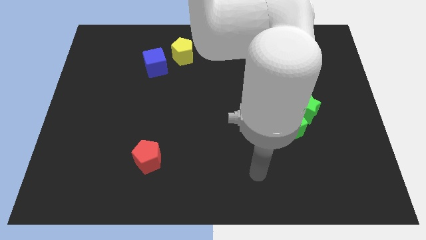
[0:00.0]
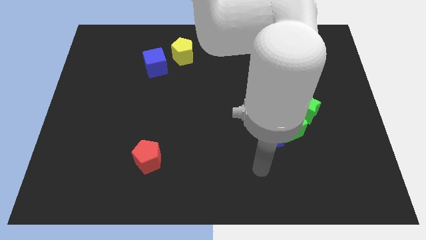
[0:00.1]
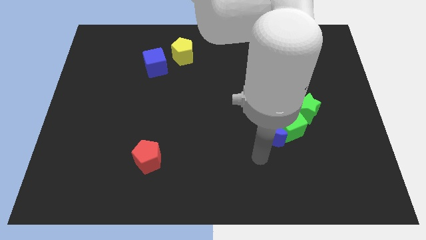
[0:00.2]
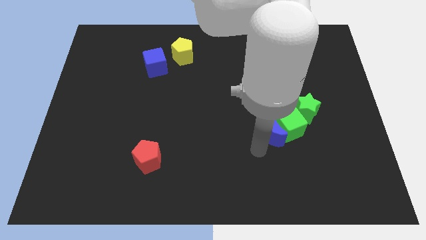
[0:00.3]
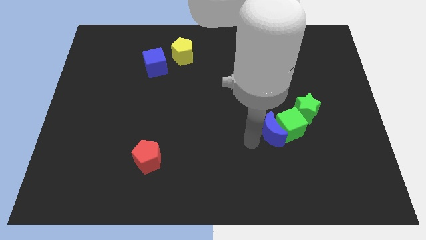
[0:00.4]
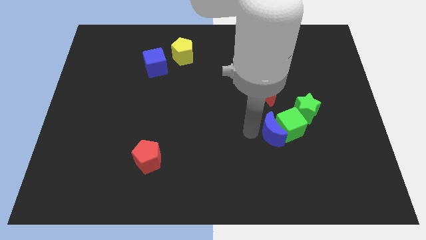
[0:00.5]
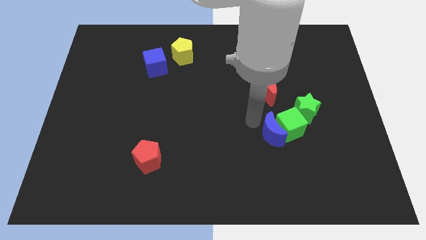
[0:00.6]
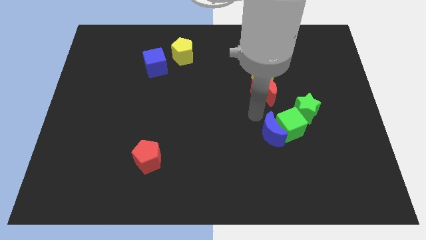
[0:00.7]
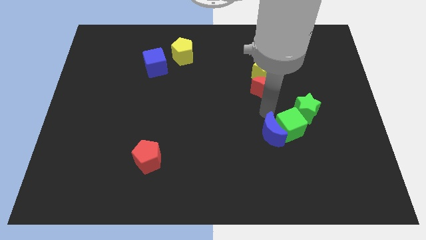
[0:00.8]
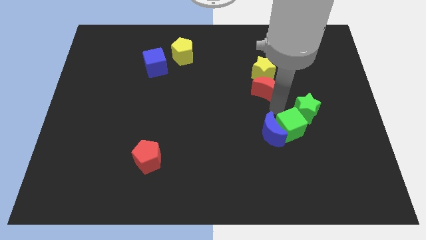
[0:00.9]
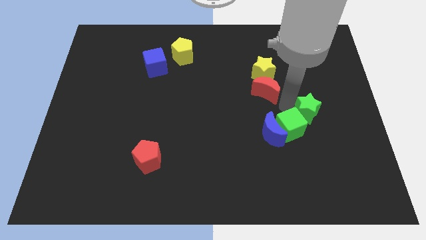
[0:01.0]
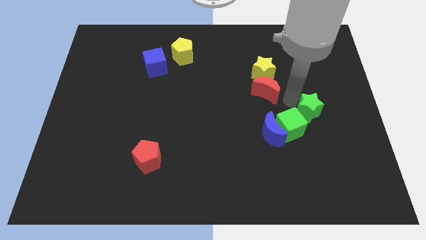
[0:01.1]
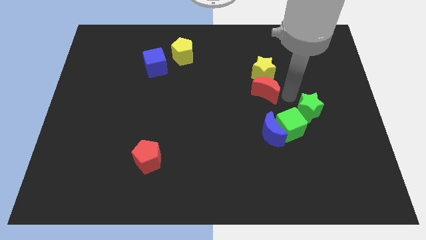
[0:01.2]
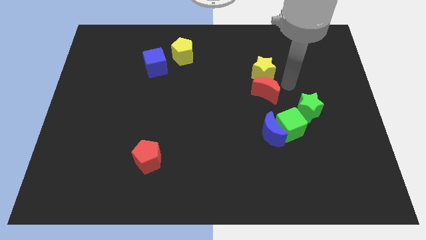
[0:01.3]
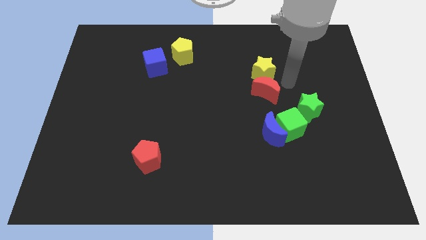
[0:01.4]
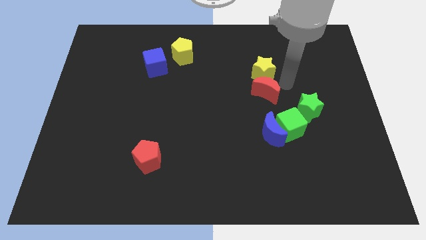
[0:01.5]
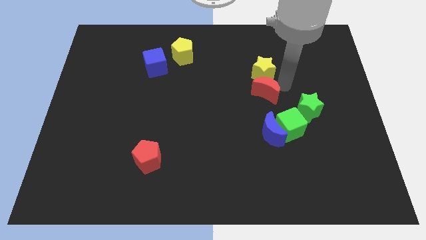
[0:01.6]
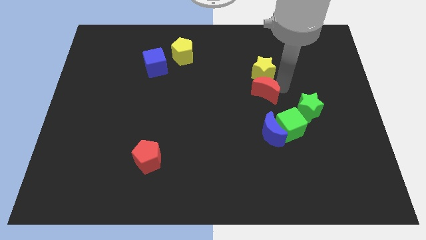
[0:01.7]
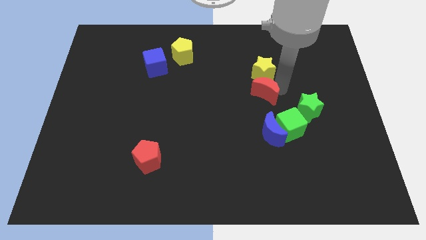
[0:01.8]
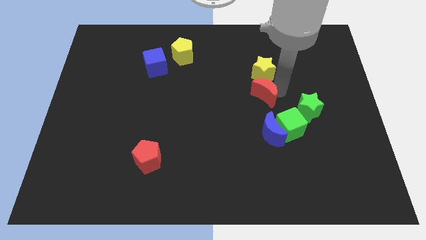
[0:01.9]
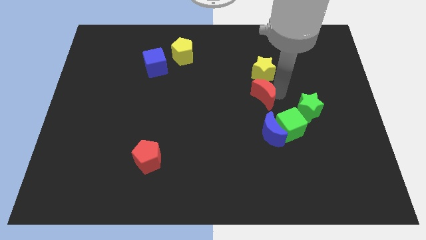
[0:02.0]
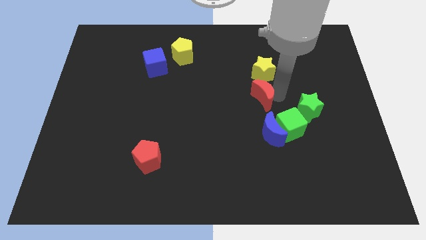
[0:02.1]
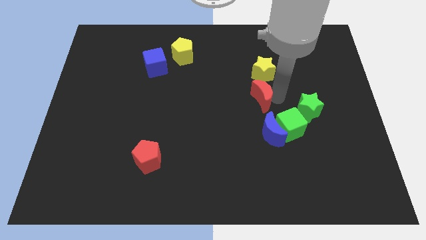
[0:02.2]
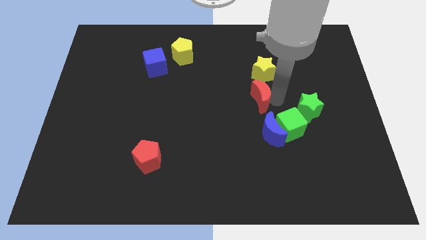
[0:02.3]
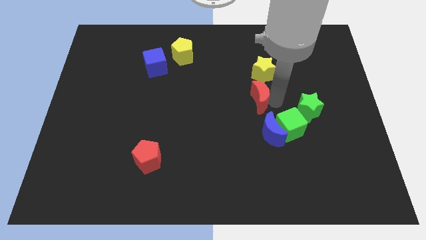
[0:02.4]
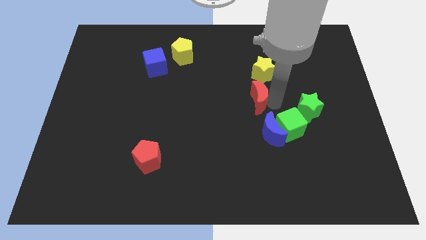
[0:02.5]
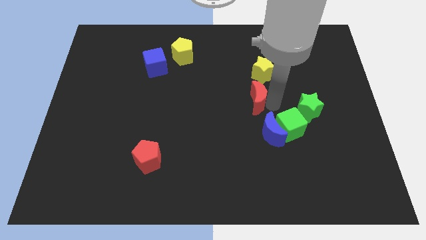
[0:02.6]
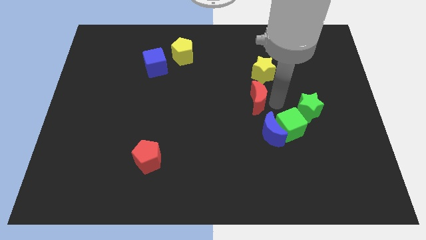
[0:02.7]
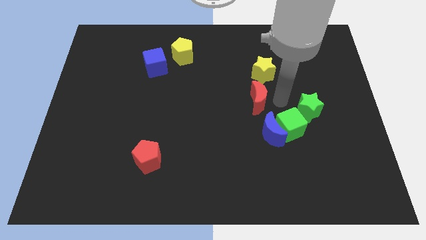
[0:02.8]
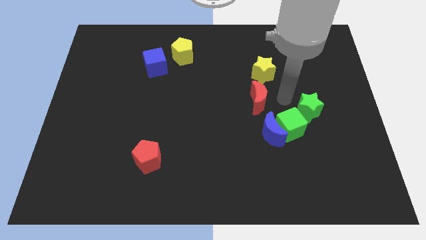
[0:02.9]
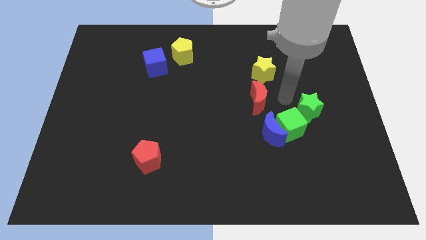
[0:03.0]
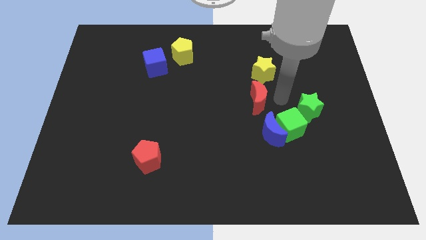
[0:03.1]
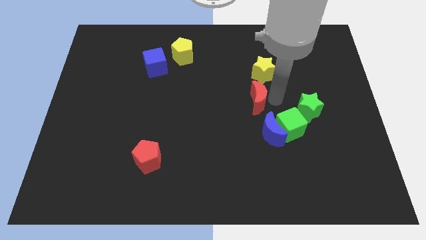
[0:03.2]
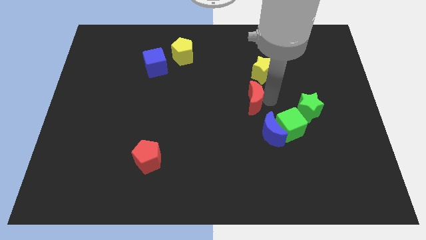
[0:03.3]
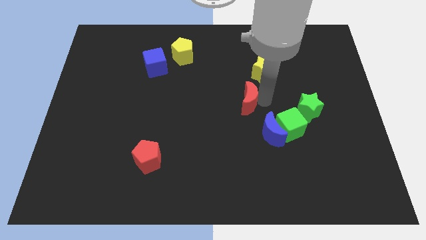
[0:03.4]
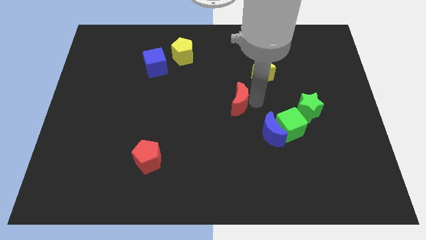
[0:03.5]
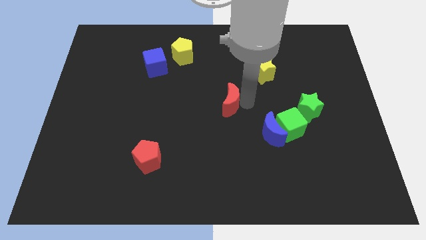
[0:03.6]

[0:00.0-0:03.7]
move the red moon a bit to the left

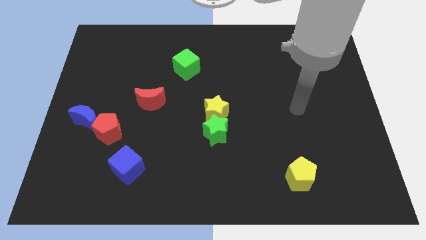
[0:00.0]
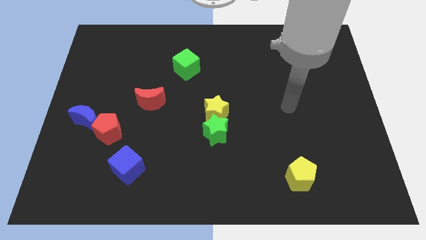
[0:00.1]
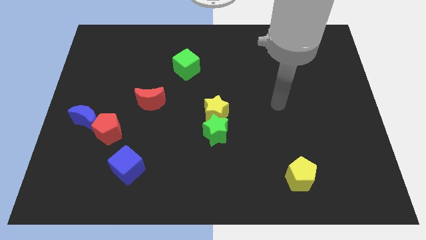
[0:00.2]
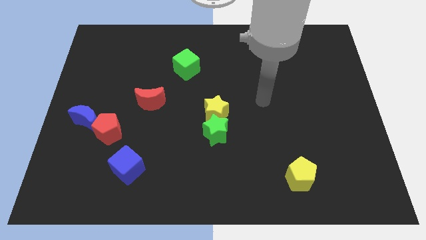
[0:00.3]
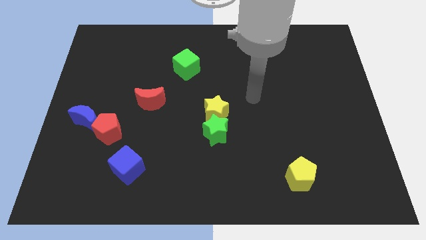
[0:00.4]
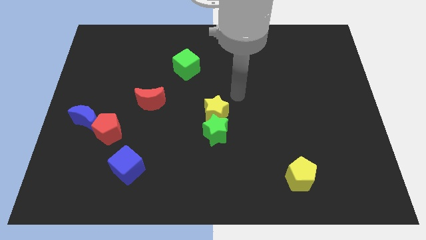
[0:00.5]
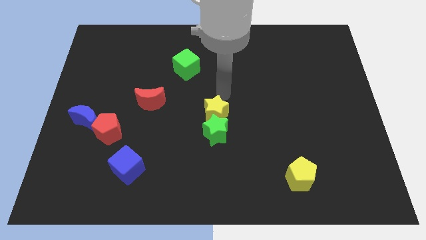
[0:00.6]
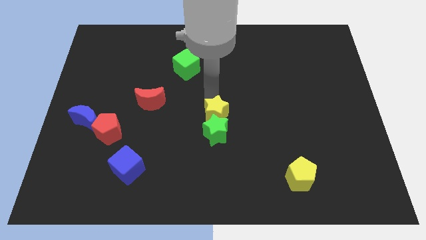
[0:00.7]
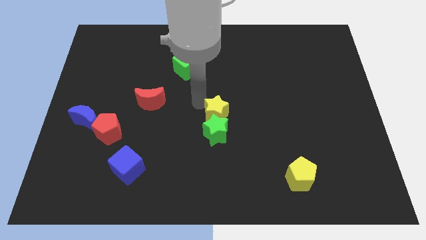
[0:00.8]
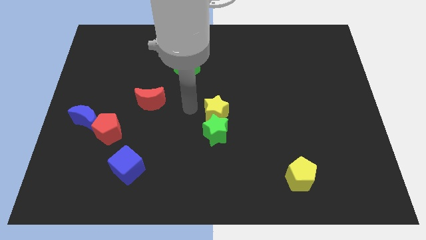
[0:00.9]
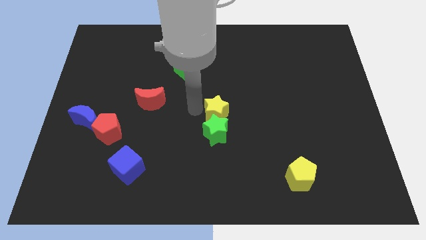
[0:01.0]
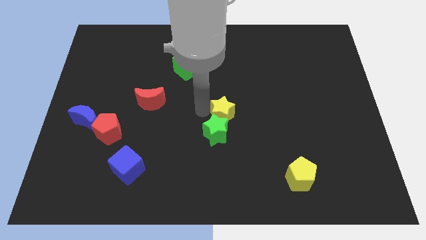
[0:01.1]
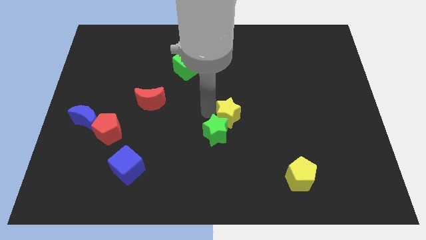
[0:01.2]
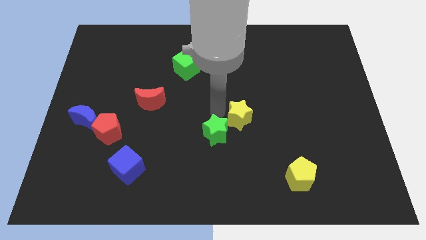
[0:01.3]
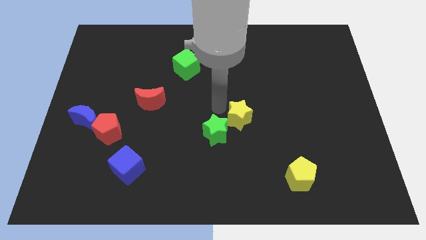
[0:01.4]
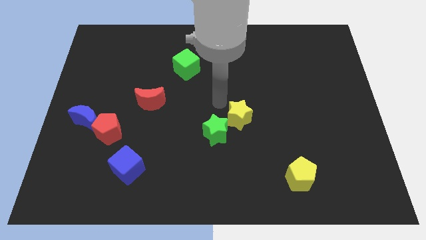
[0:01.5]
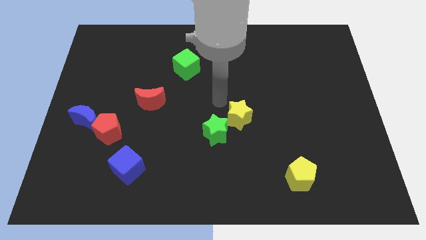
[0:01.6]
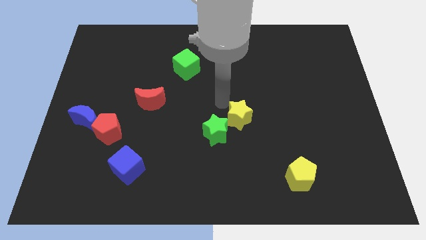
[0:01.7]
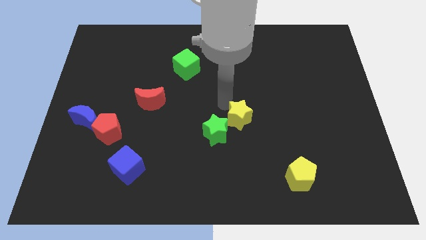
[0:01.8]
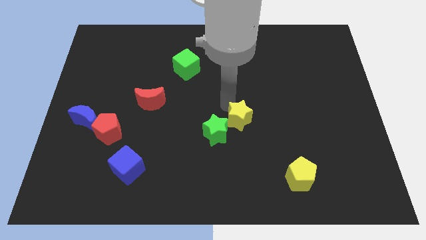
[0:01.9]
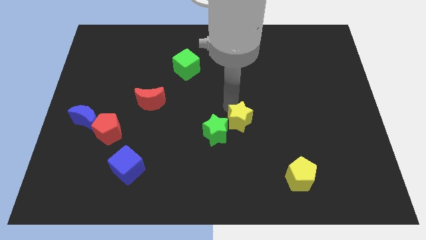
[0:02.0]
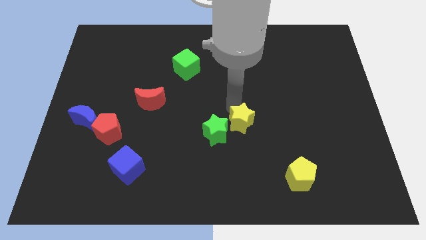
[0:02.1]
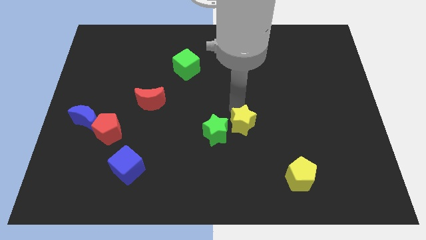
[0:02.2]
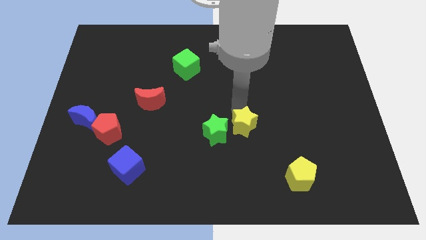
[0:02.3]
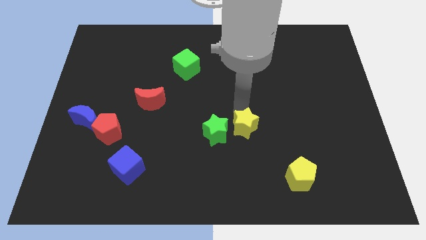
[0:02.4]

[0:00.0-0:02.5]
slightly slide the yellow star downwards and right diagonally

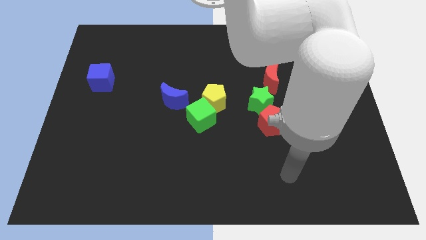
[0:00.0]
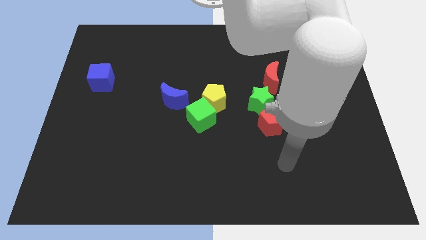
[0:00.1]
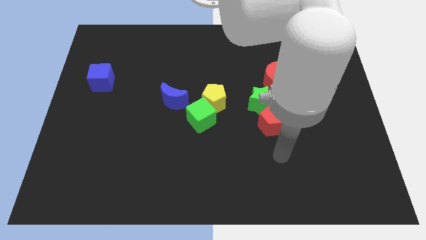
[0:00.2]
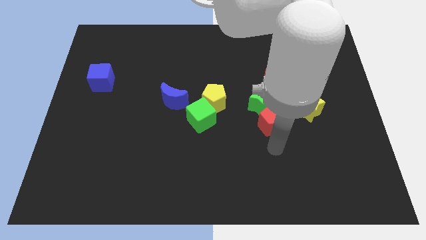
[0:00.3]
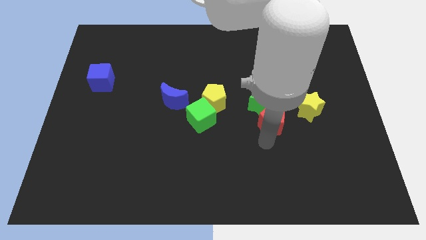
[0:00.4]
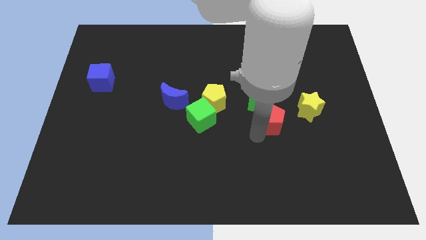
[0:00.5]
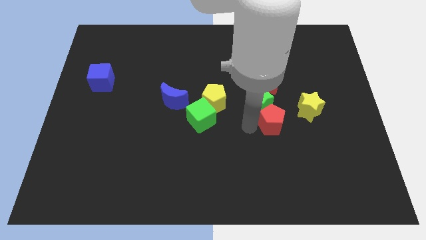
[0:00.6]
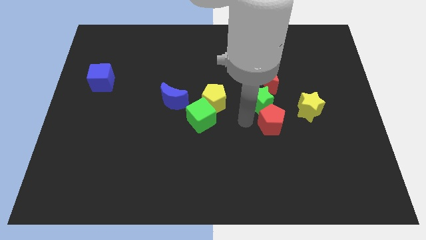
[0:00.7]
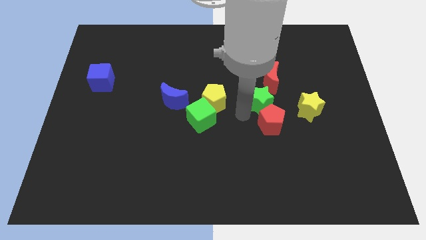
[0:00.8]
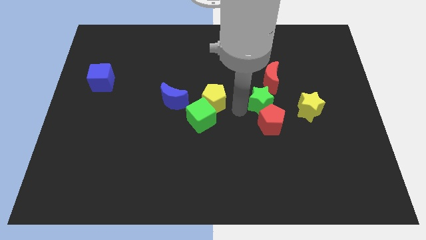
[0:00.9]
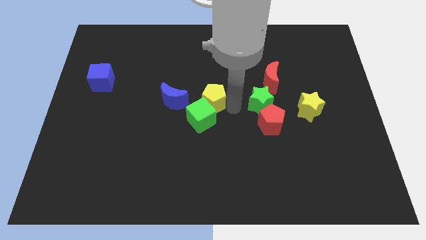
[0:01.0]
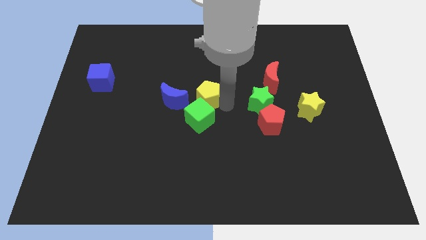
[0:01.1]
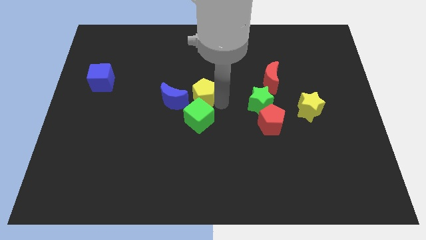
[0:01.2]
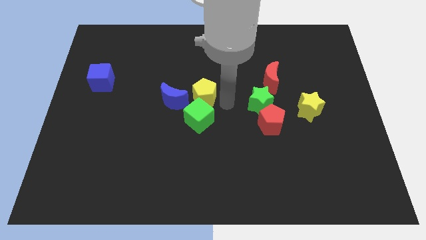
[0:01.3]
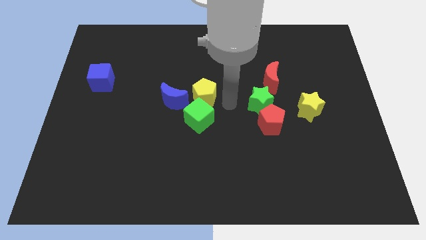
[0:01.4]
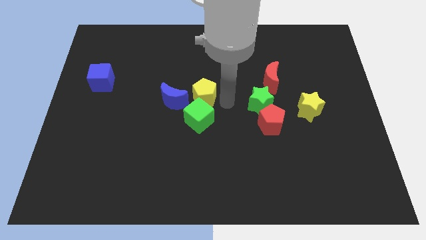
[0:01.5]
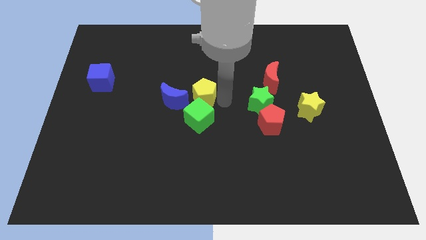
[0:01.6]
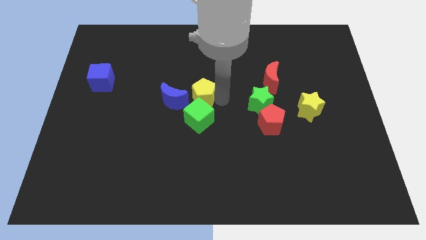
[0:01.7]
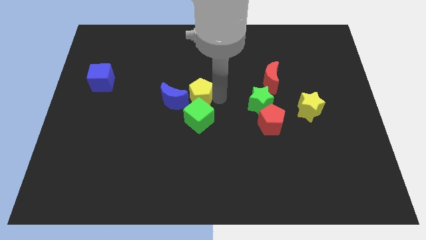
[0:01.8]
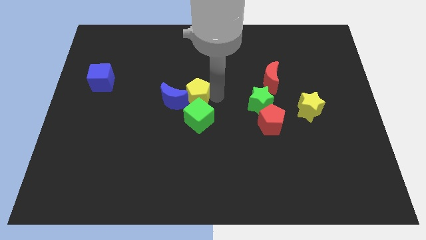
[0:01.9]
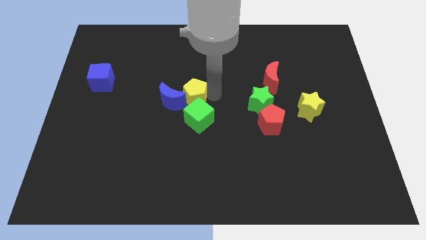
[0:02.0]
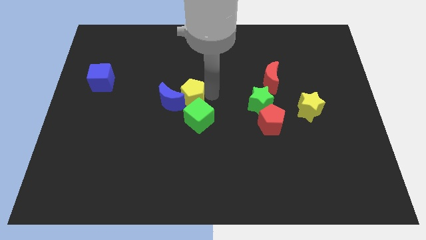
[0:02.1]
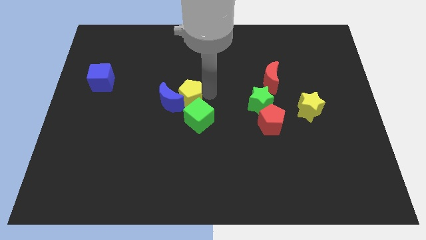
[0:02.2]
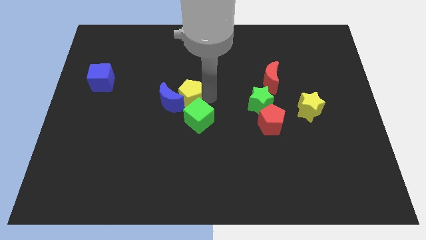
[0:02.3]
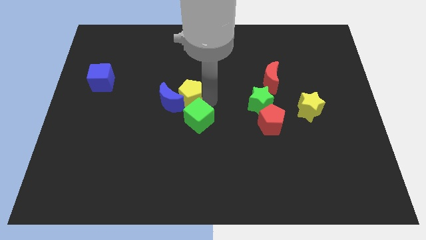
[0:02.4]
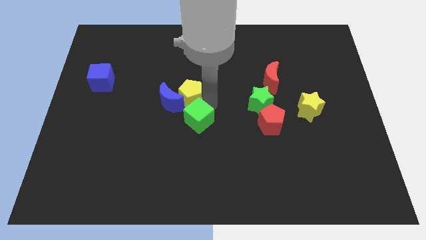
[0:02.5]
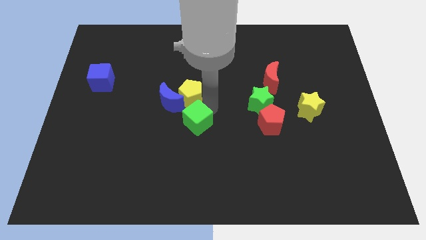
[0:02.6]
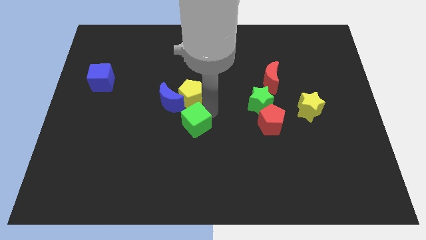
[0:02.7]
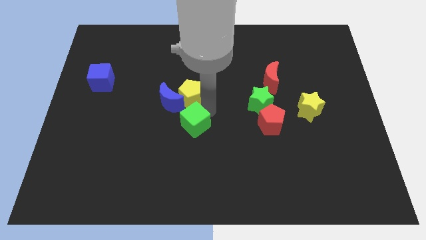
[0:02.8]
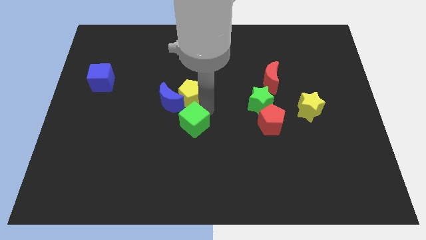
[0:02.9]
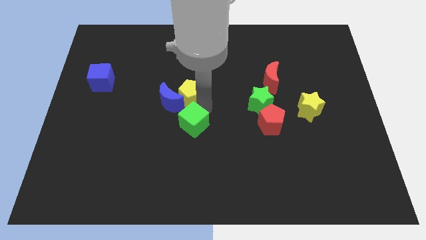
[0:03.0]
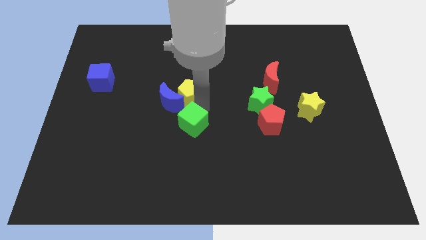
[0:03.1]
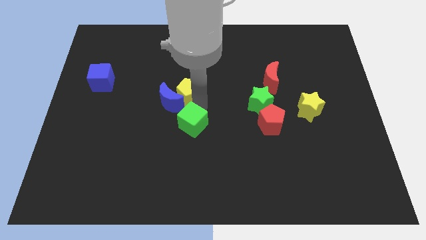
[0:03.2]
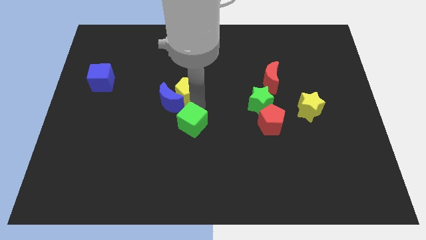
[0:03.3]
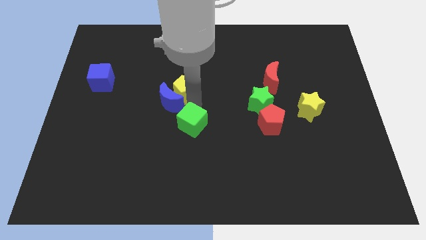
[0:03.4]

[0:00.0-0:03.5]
slide the yellow pentagon a bit to the left
